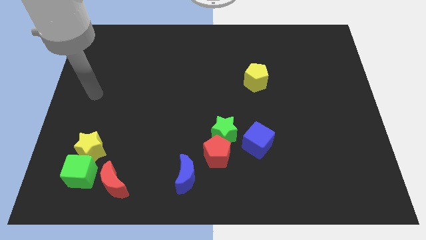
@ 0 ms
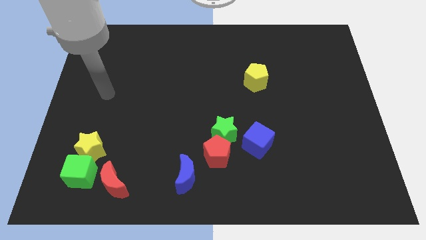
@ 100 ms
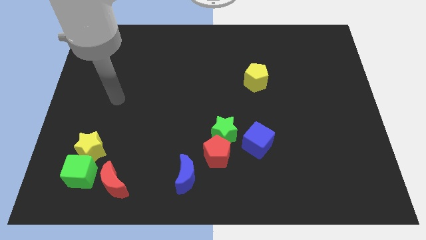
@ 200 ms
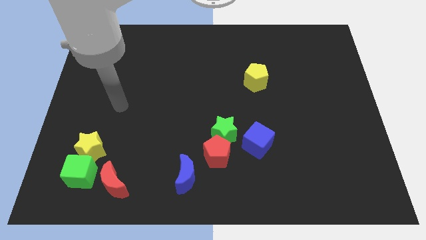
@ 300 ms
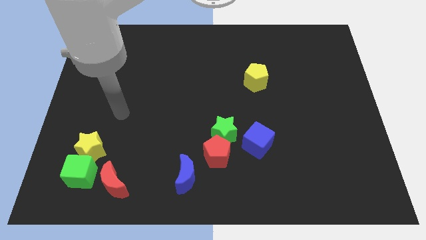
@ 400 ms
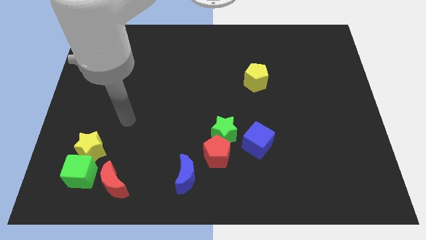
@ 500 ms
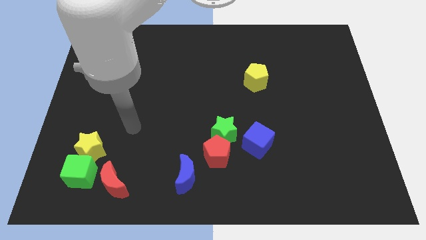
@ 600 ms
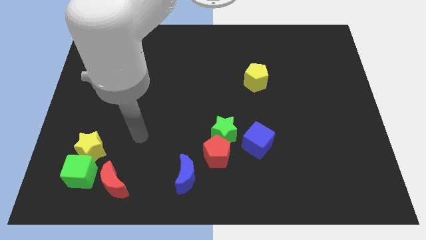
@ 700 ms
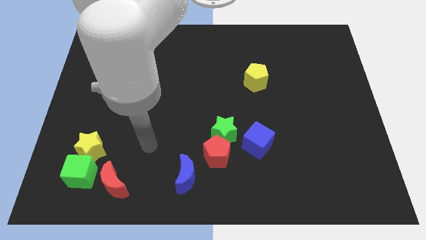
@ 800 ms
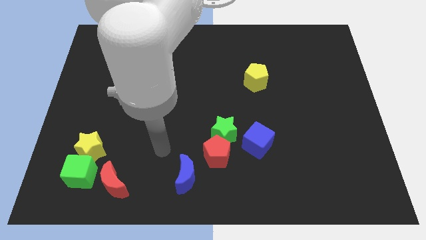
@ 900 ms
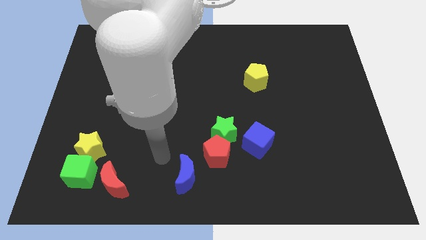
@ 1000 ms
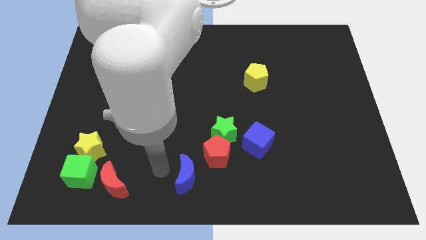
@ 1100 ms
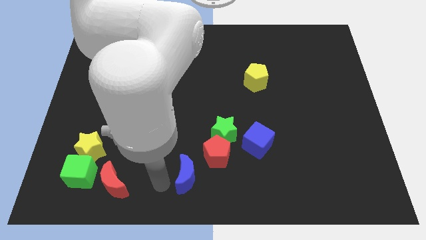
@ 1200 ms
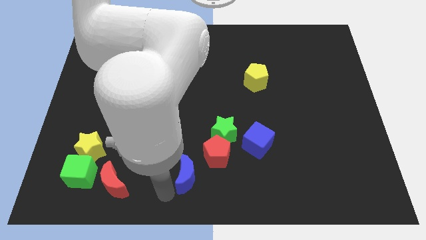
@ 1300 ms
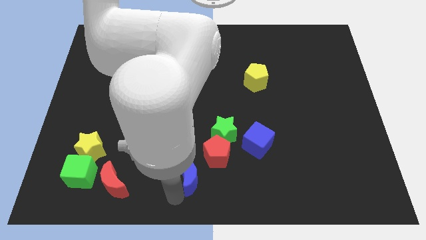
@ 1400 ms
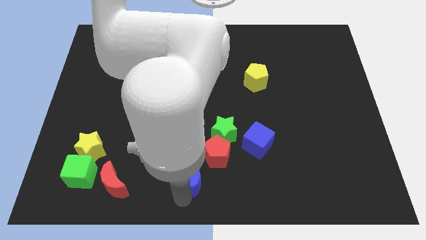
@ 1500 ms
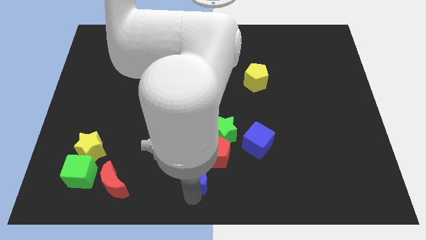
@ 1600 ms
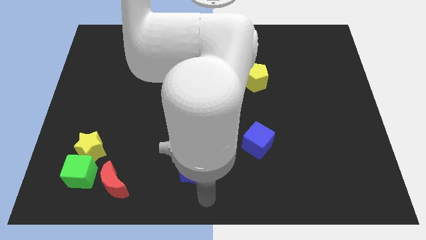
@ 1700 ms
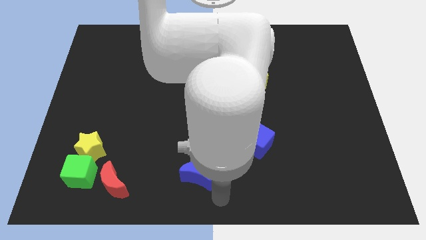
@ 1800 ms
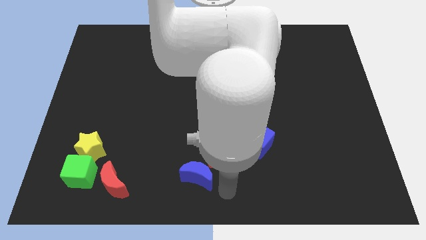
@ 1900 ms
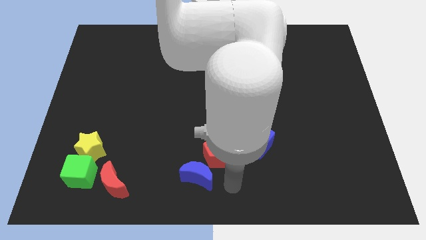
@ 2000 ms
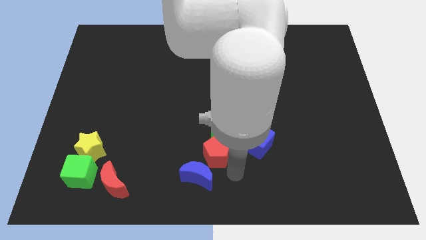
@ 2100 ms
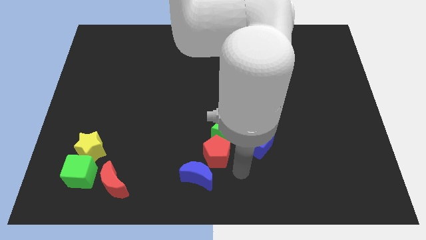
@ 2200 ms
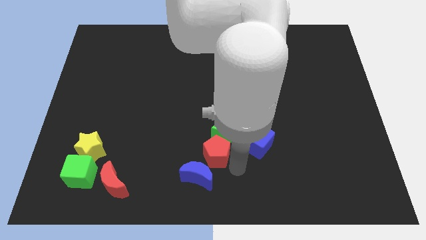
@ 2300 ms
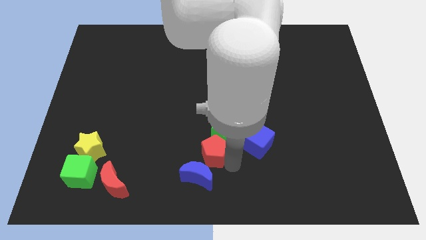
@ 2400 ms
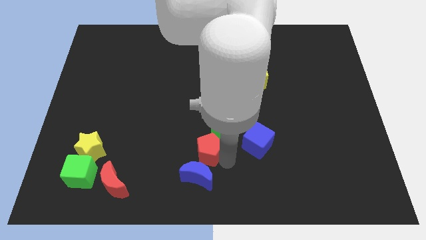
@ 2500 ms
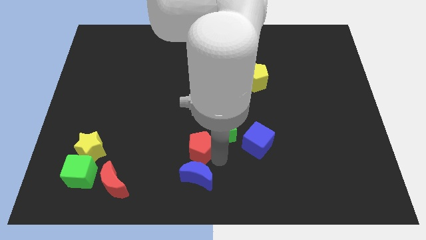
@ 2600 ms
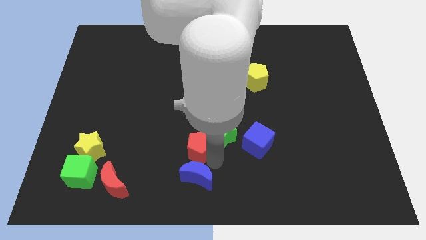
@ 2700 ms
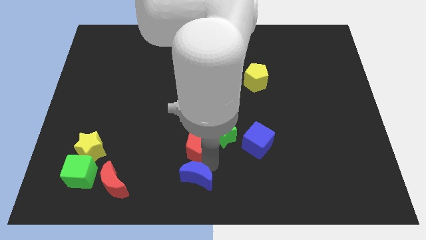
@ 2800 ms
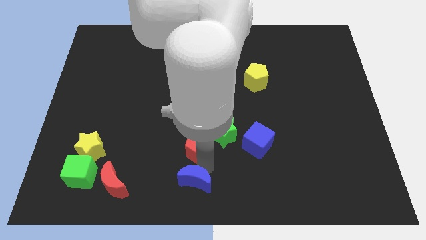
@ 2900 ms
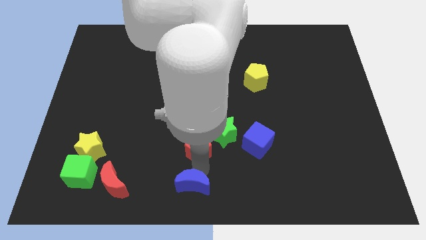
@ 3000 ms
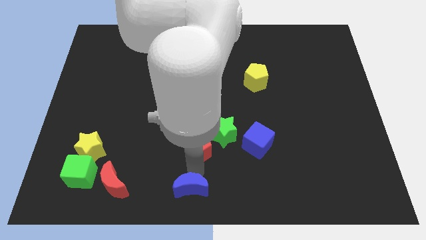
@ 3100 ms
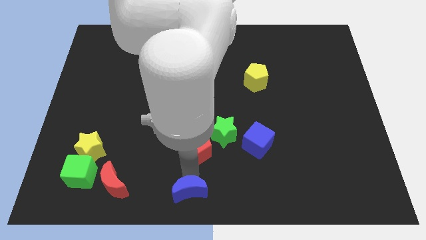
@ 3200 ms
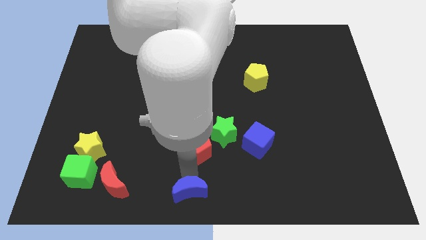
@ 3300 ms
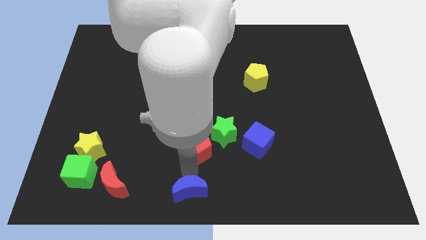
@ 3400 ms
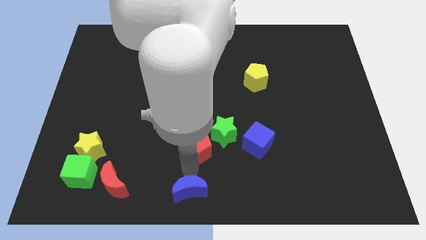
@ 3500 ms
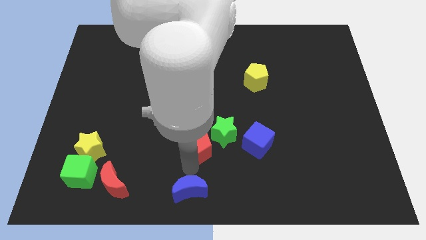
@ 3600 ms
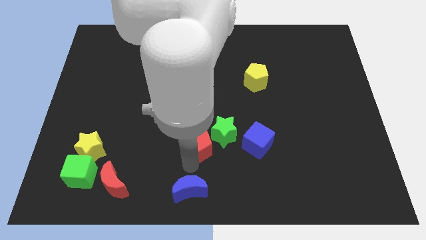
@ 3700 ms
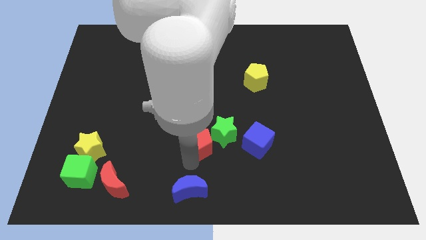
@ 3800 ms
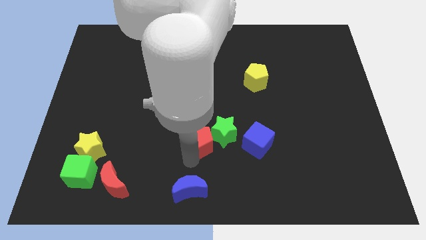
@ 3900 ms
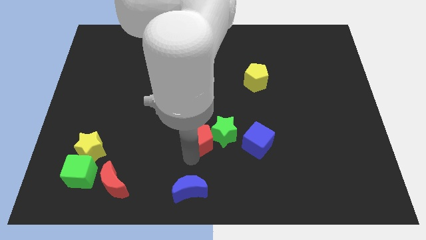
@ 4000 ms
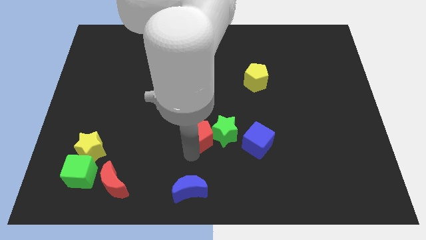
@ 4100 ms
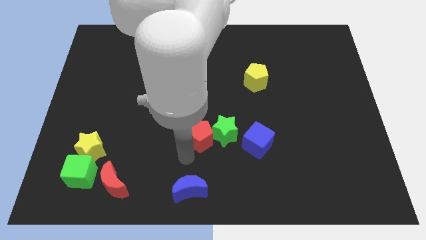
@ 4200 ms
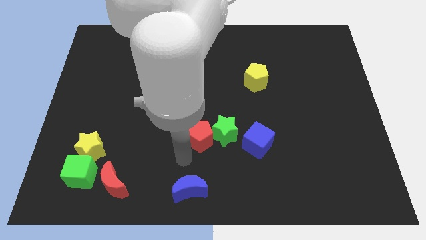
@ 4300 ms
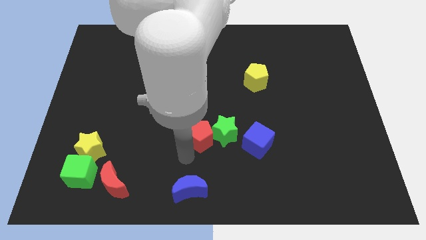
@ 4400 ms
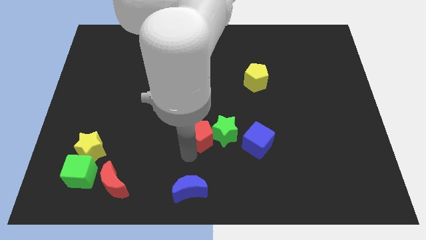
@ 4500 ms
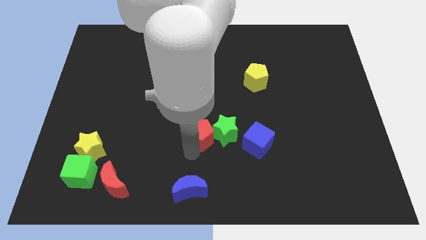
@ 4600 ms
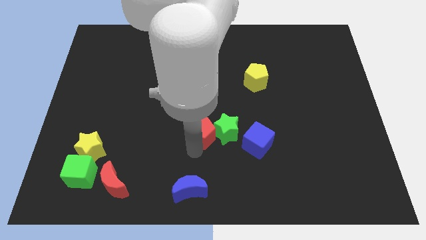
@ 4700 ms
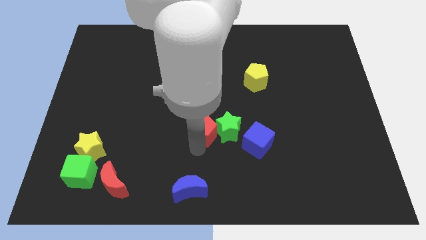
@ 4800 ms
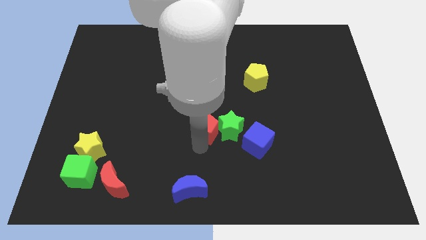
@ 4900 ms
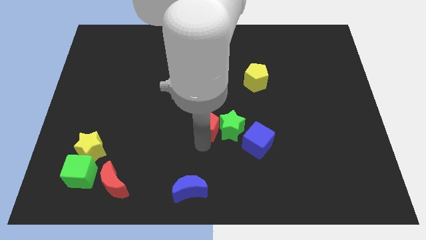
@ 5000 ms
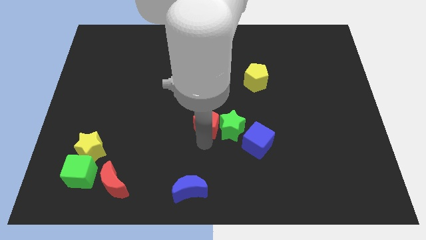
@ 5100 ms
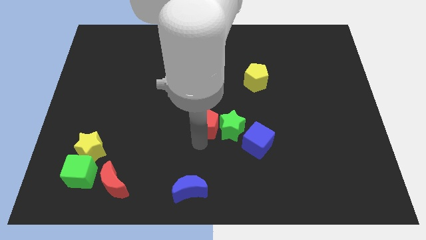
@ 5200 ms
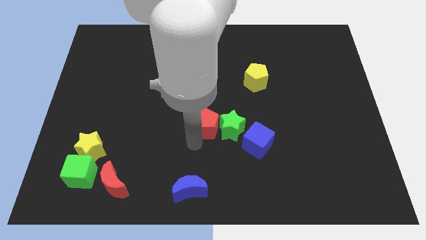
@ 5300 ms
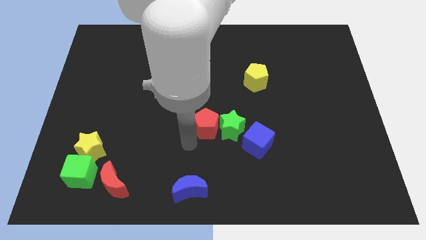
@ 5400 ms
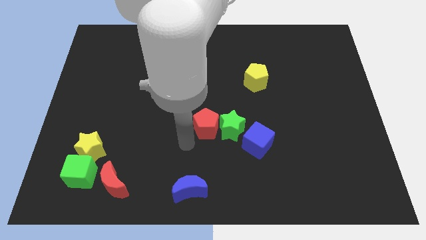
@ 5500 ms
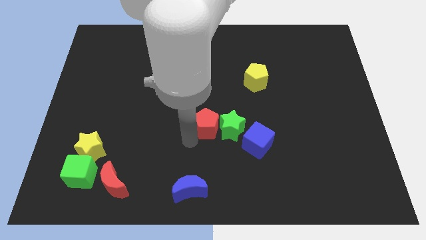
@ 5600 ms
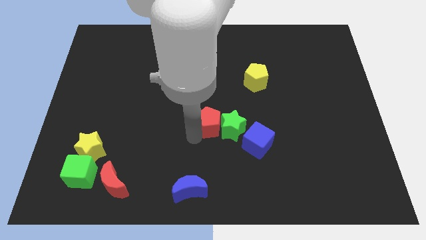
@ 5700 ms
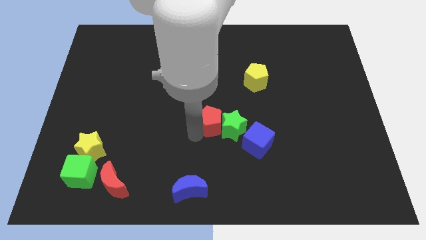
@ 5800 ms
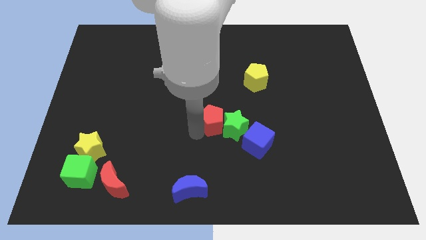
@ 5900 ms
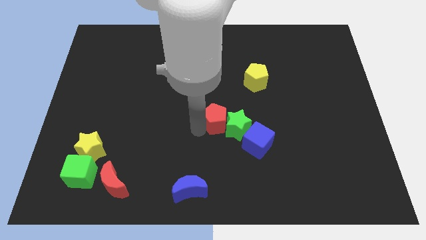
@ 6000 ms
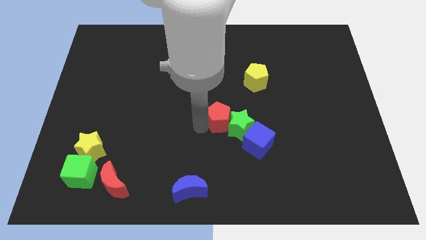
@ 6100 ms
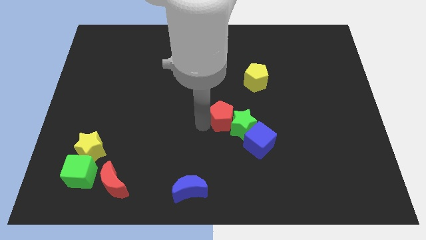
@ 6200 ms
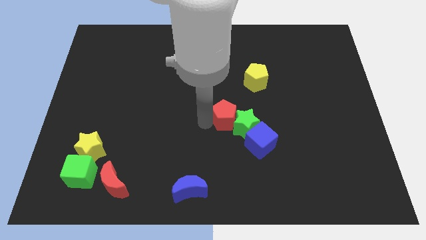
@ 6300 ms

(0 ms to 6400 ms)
slightly move the red pentagon upwards and to the right diagonally

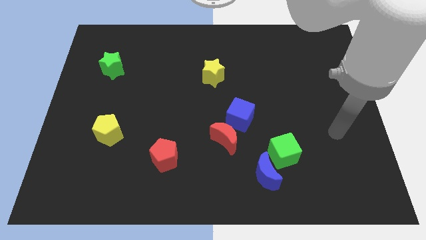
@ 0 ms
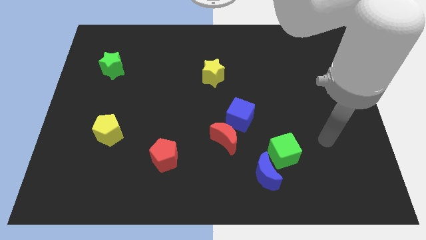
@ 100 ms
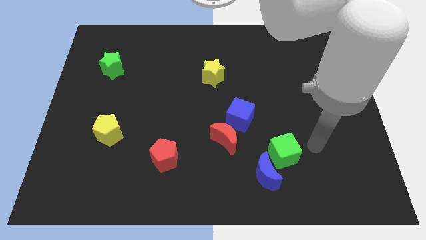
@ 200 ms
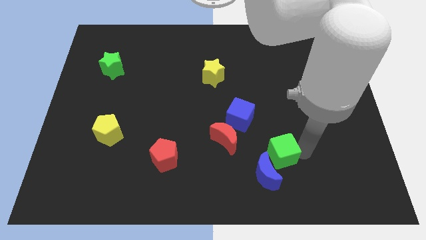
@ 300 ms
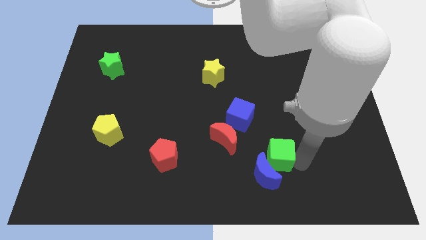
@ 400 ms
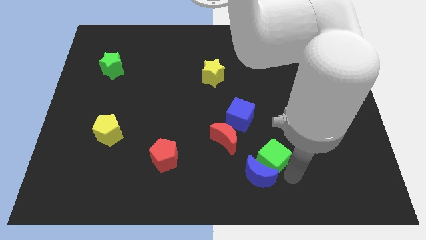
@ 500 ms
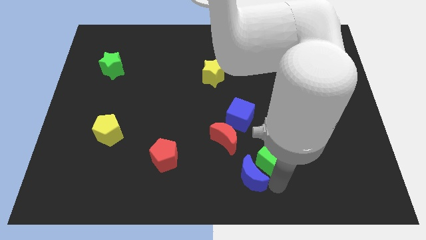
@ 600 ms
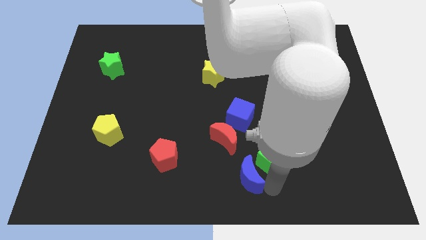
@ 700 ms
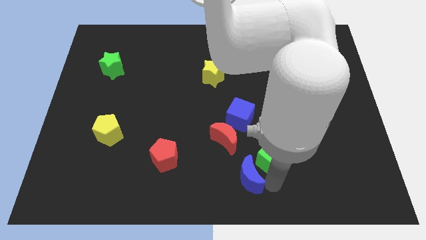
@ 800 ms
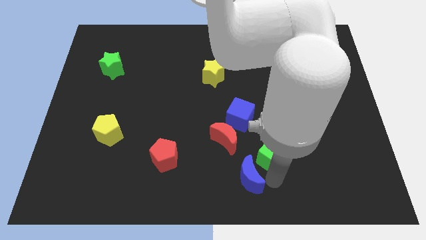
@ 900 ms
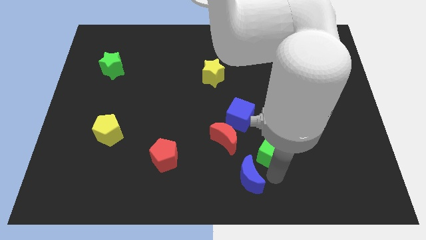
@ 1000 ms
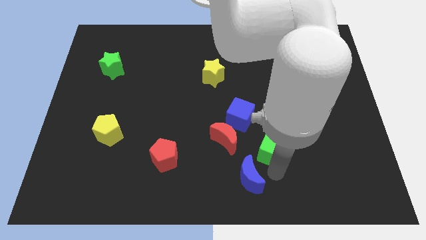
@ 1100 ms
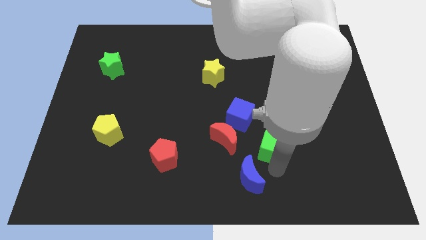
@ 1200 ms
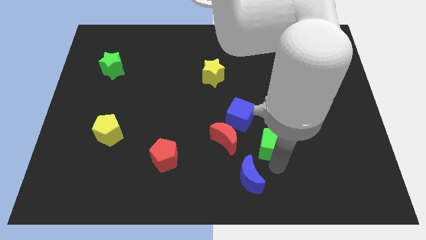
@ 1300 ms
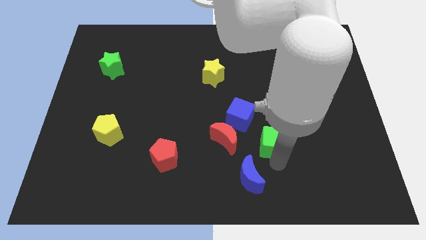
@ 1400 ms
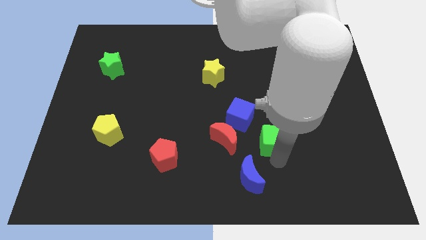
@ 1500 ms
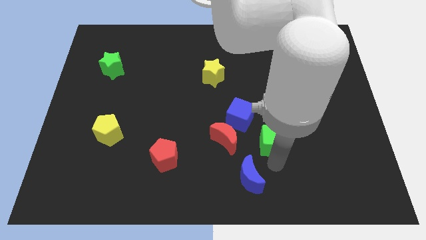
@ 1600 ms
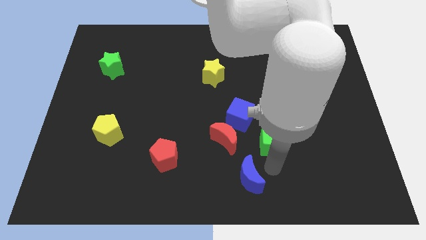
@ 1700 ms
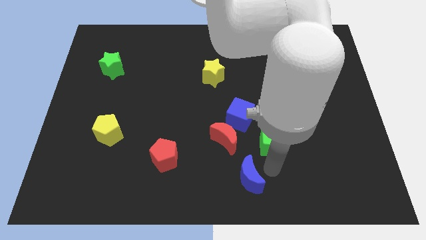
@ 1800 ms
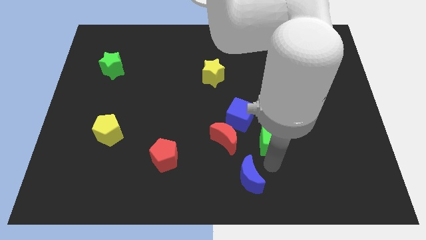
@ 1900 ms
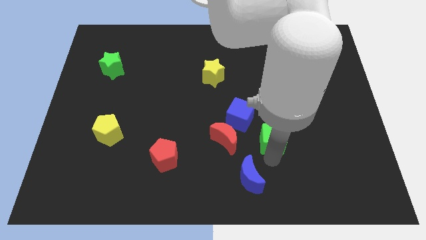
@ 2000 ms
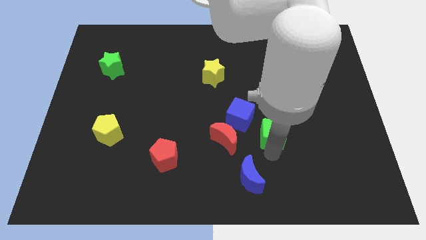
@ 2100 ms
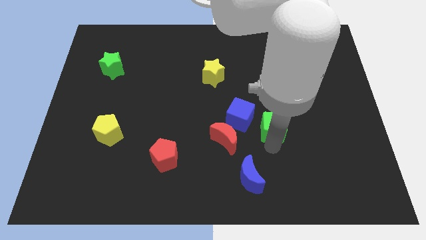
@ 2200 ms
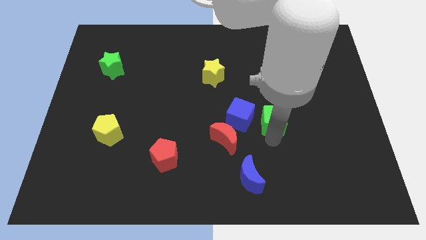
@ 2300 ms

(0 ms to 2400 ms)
move the green cube up a bit

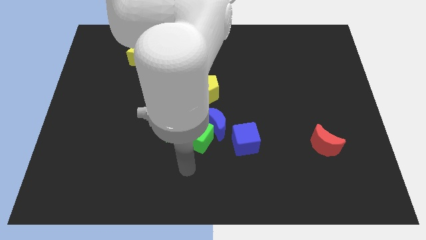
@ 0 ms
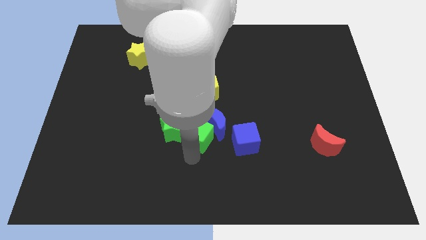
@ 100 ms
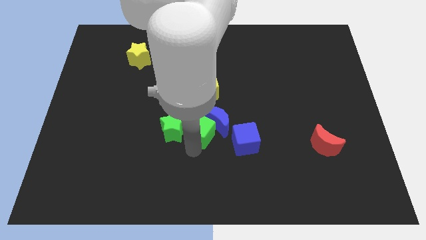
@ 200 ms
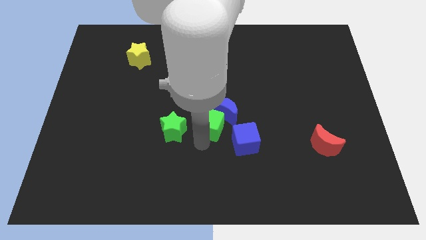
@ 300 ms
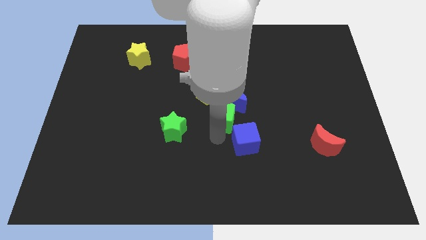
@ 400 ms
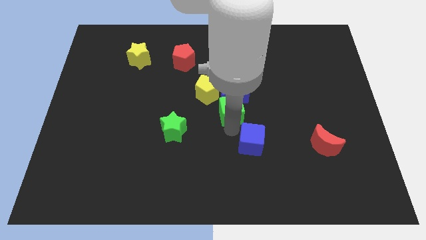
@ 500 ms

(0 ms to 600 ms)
slightly slide the blue moon up
